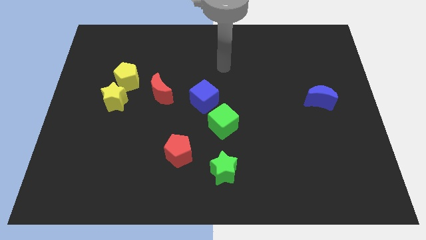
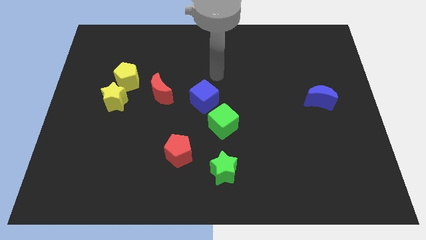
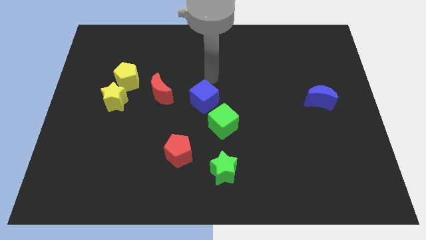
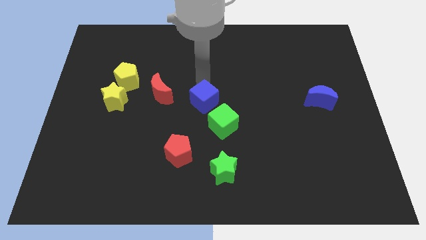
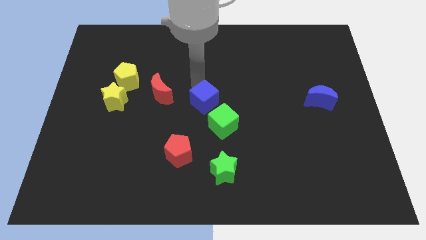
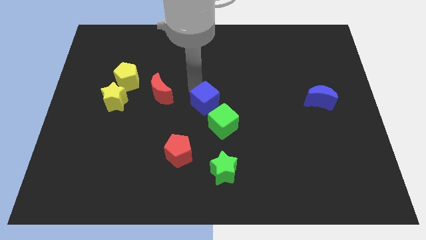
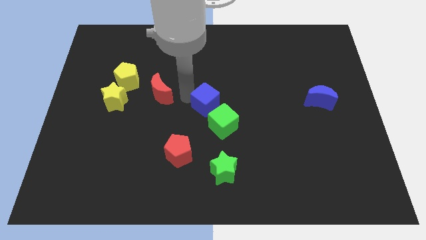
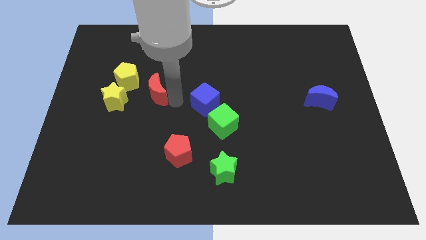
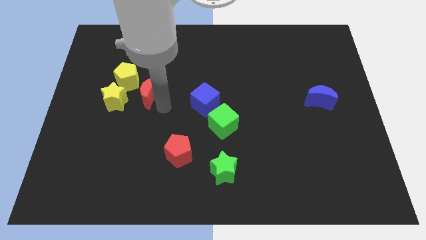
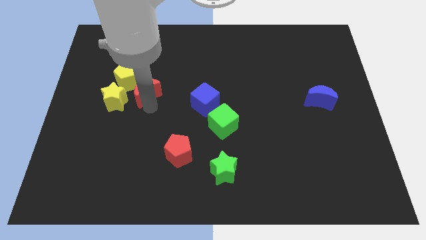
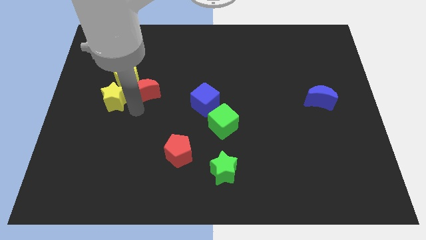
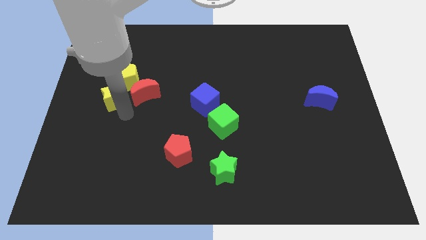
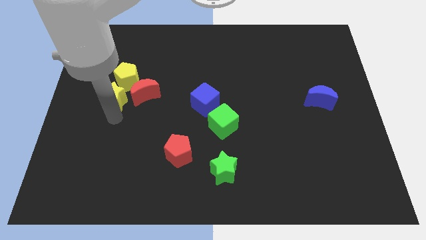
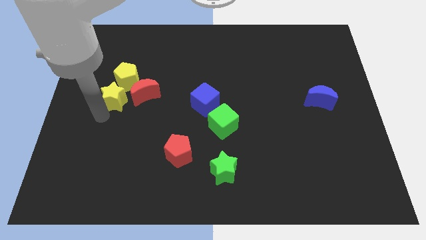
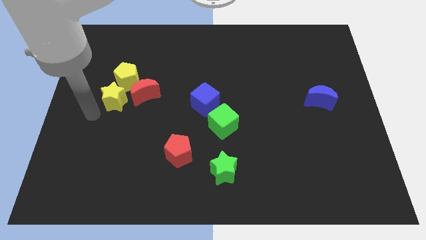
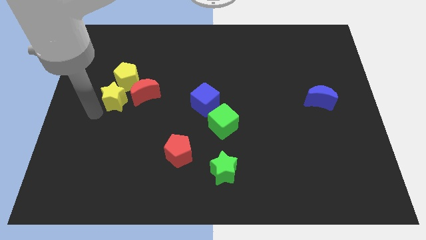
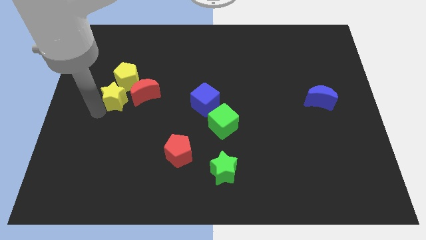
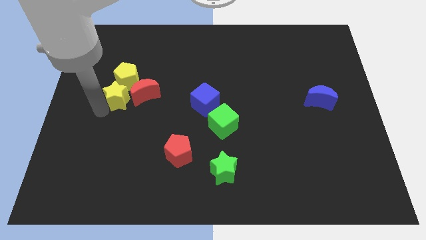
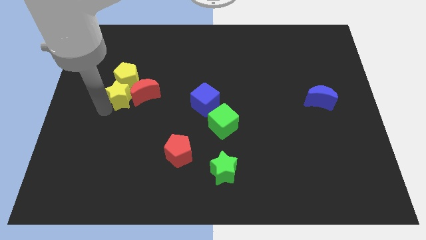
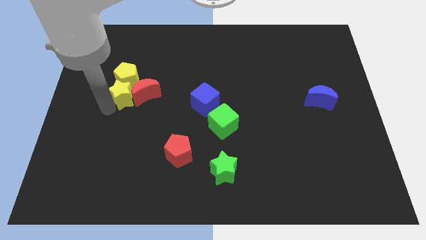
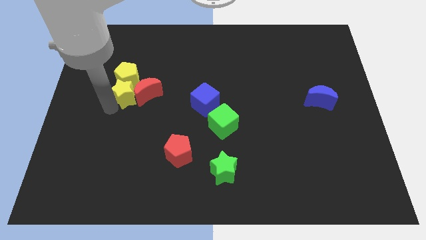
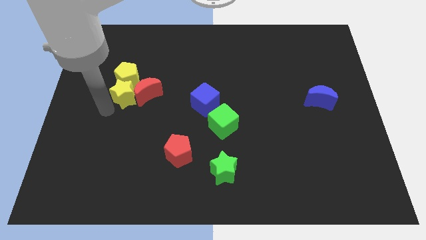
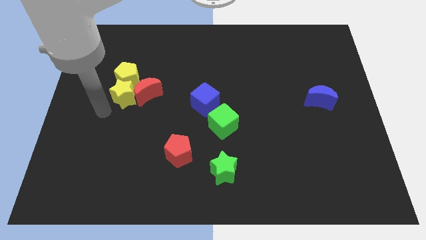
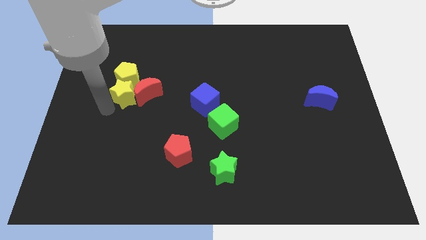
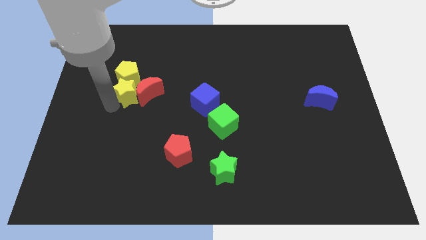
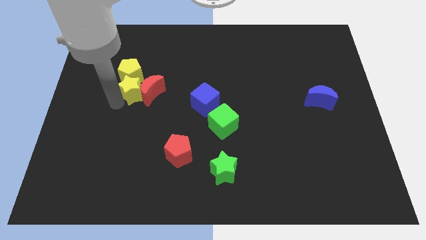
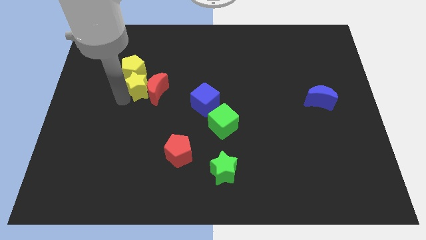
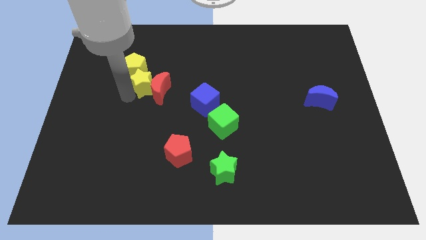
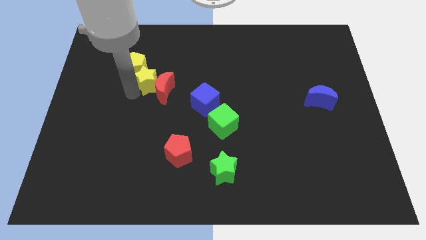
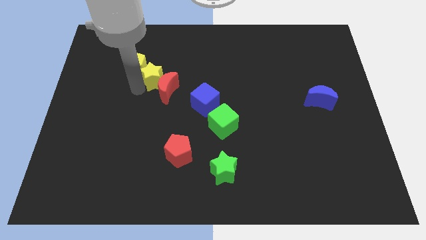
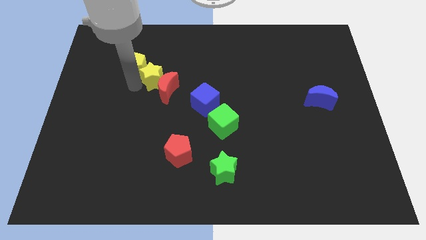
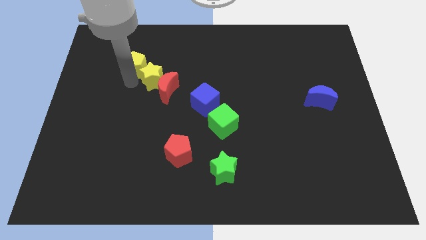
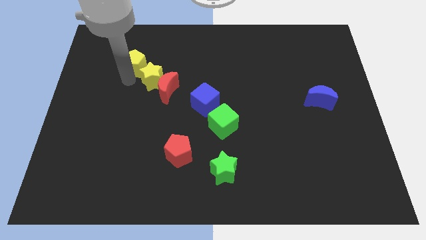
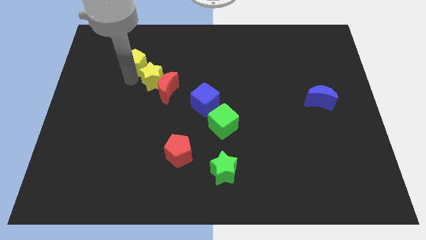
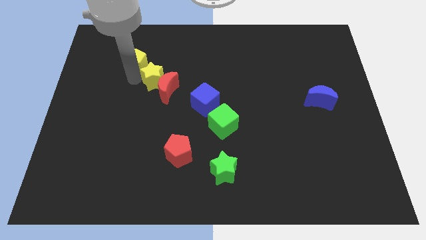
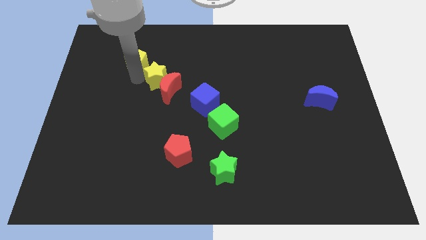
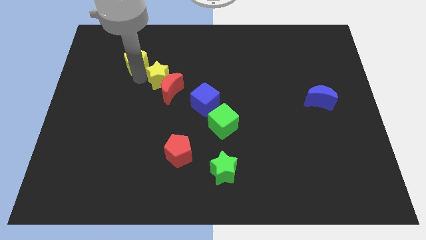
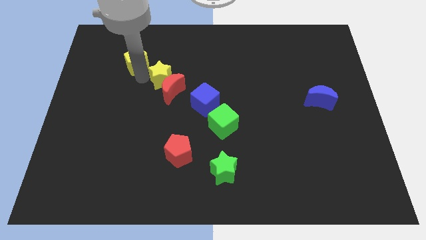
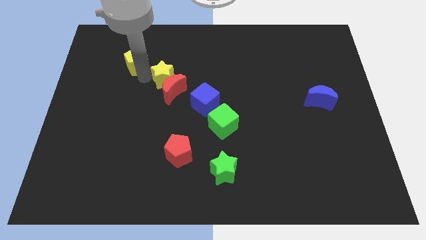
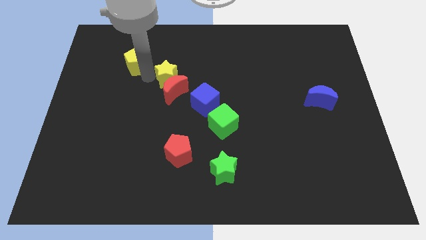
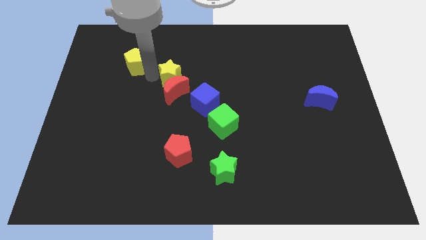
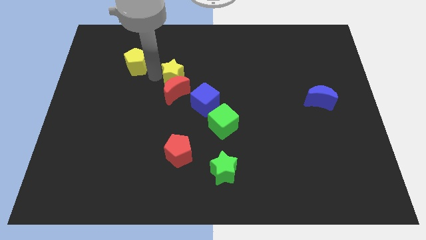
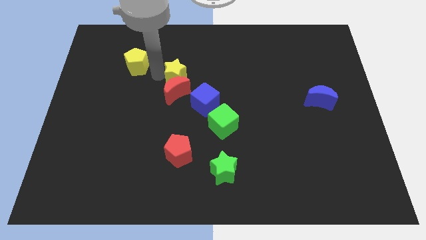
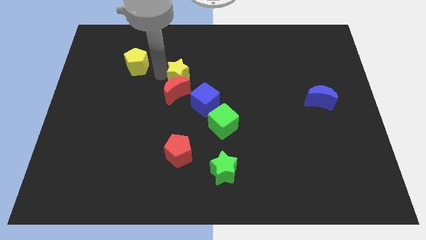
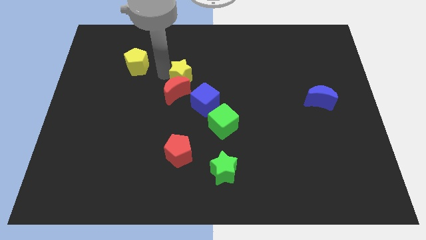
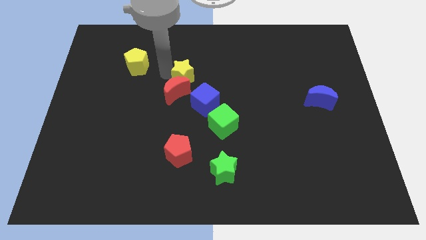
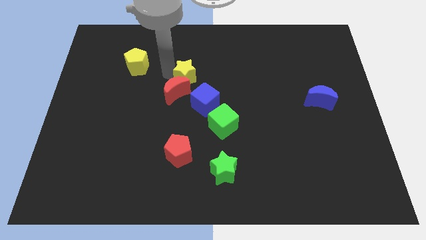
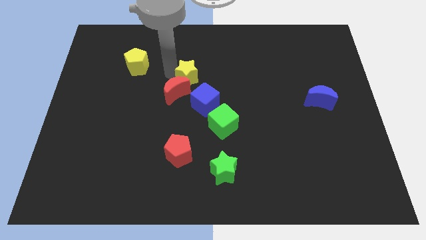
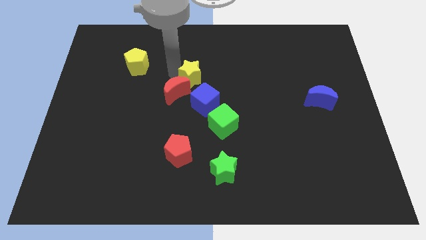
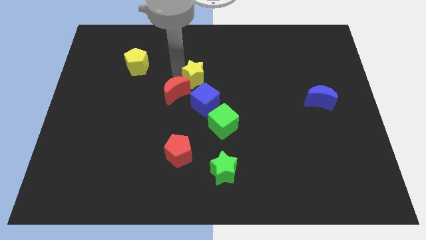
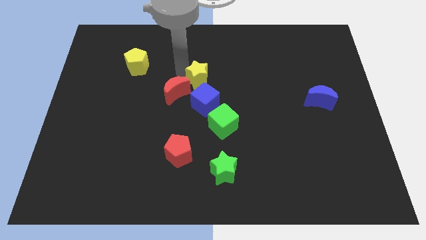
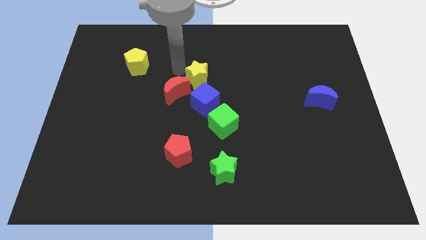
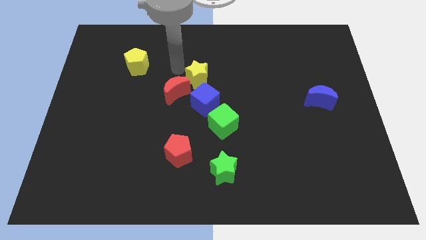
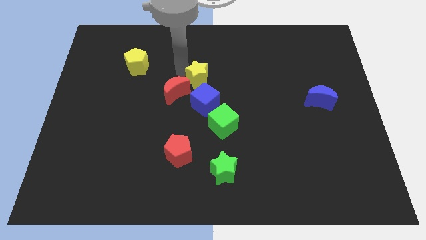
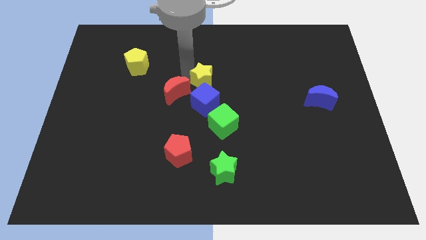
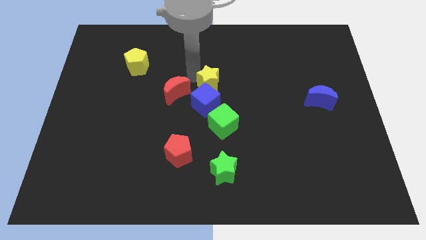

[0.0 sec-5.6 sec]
push the yellow star to the top of the green cube

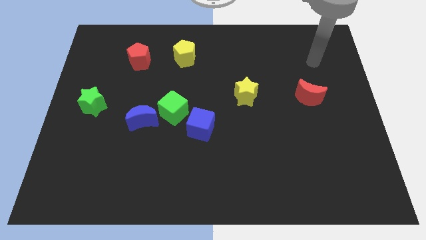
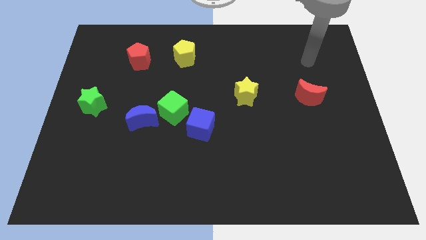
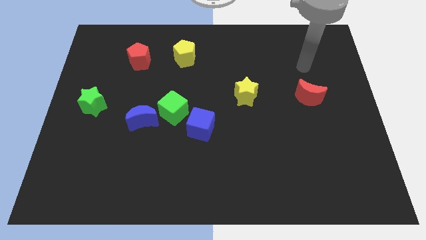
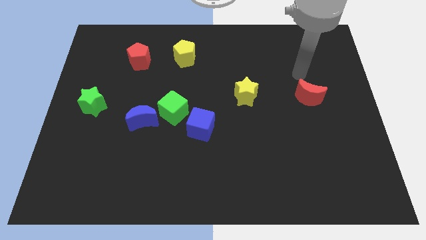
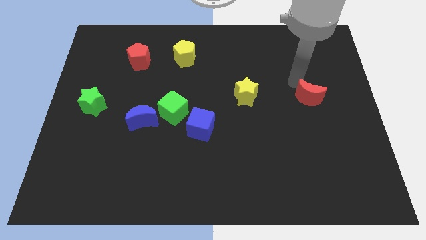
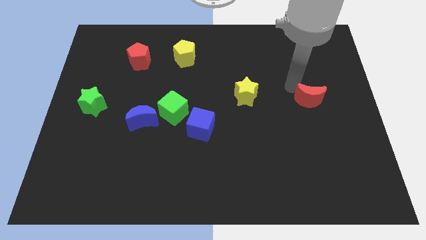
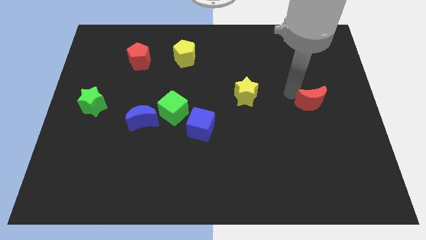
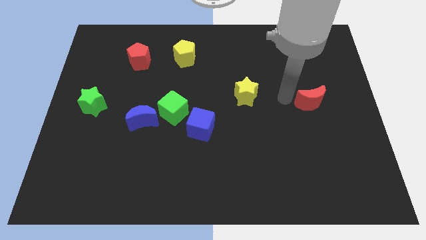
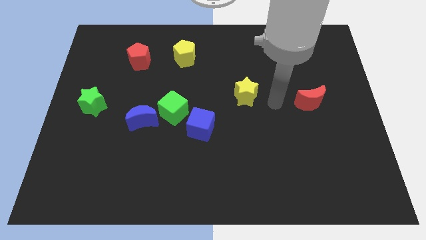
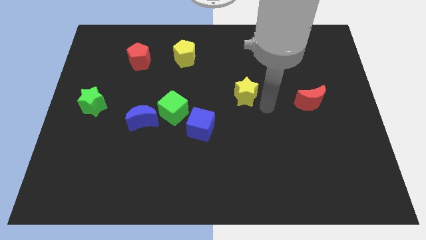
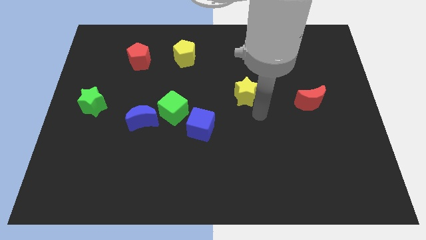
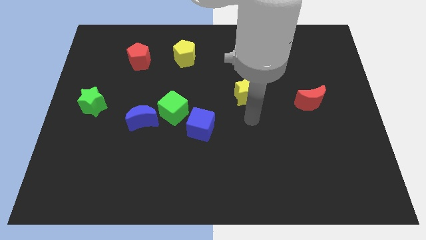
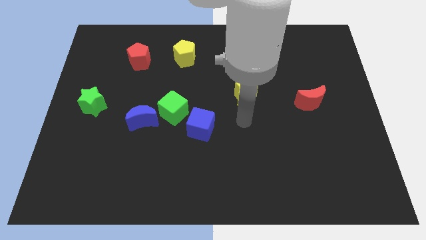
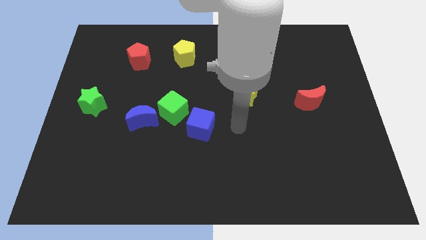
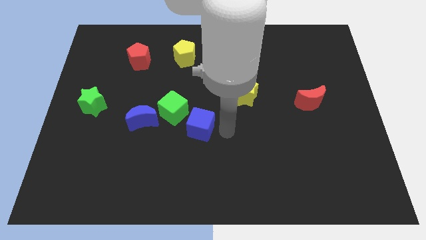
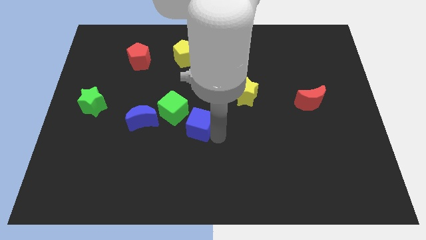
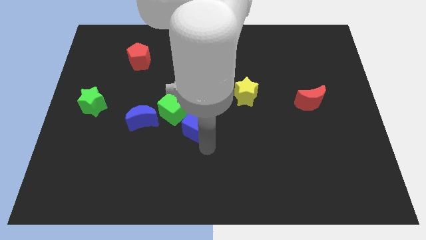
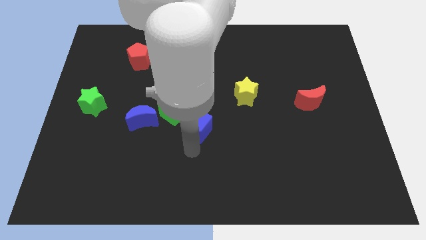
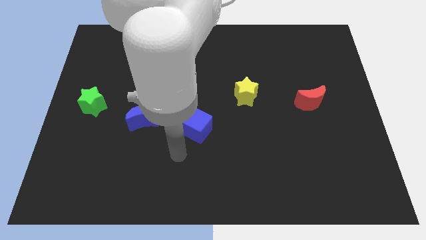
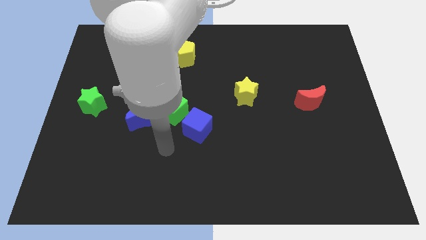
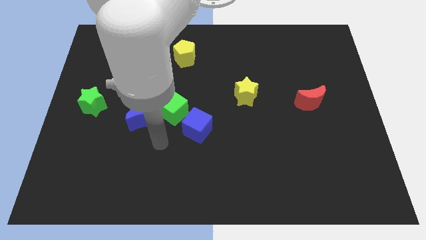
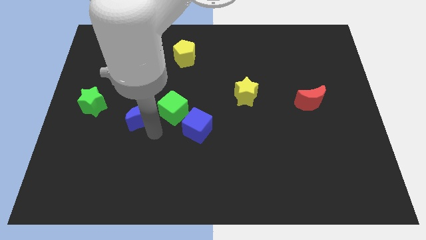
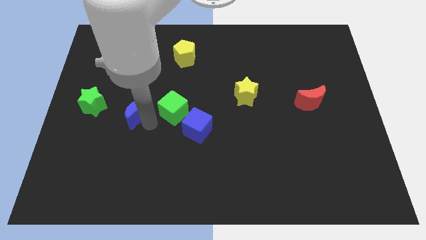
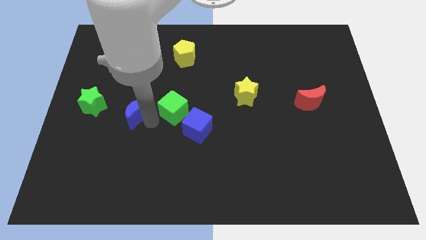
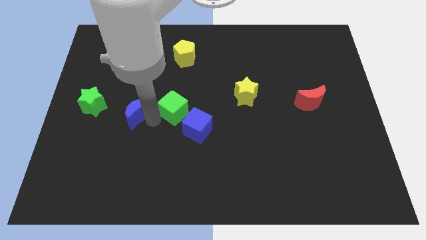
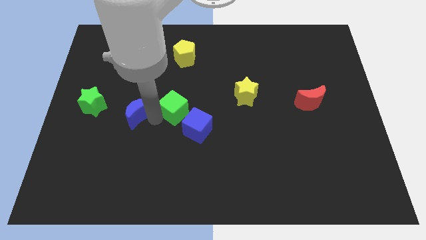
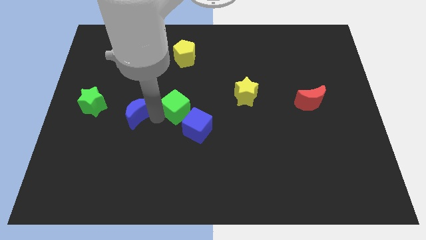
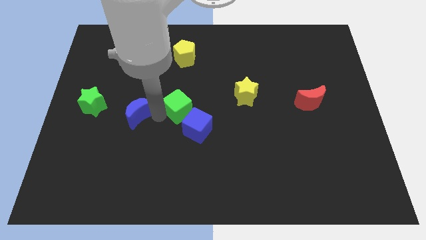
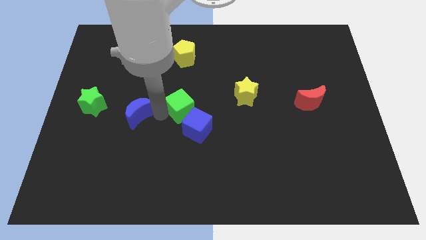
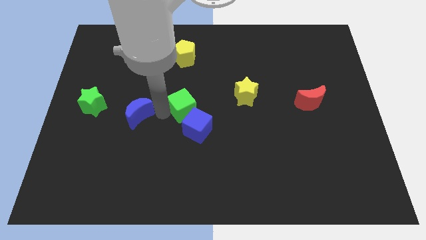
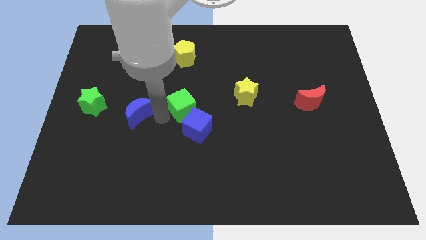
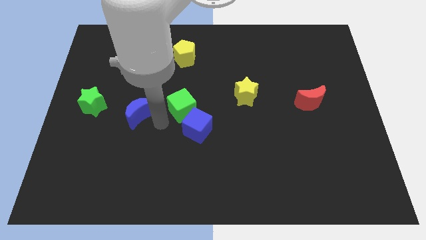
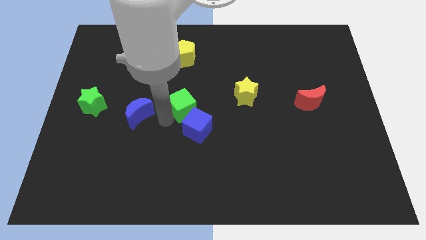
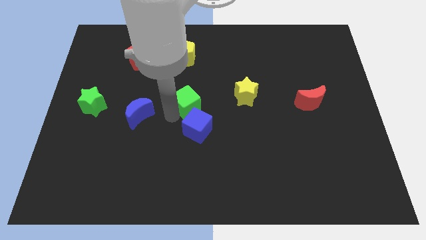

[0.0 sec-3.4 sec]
push the green cube left of the yellow star
